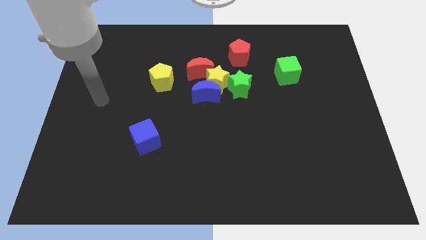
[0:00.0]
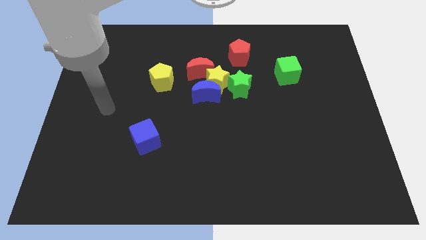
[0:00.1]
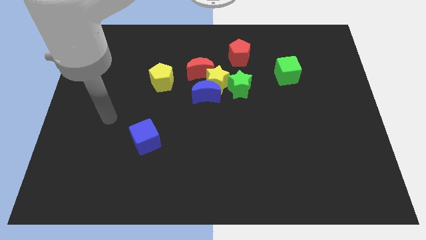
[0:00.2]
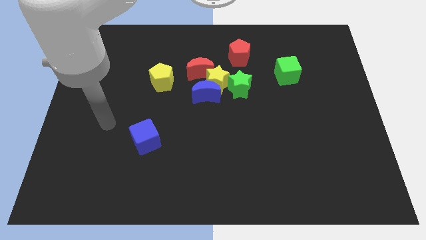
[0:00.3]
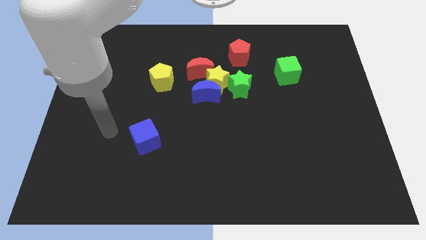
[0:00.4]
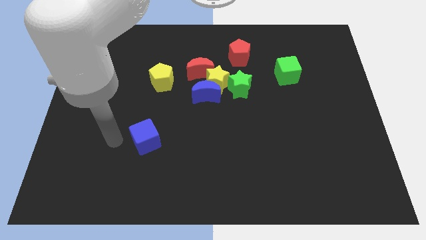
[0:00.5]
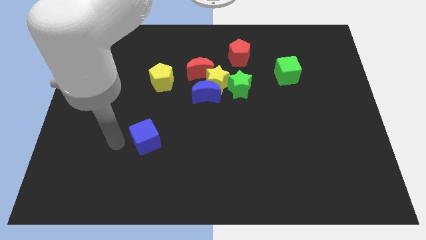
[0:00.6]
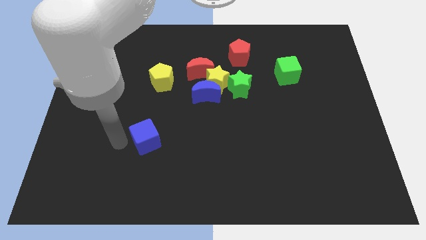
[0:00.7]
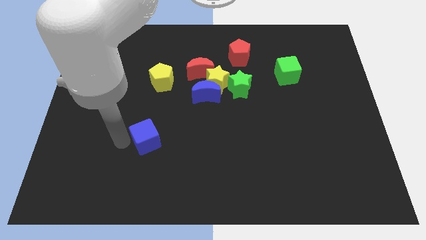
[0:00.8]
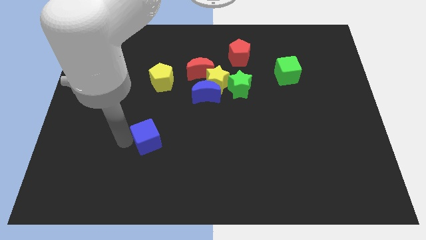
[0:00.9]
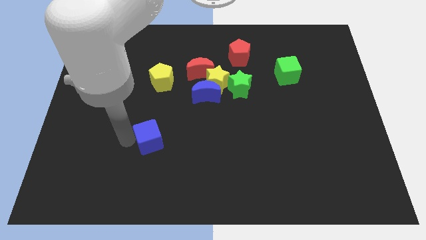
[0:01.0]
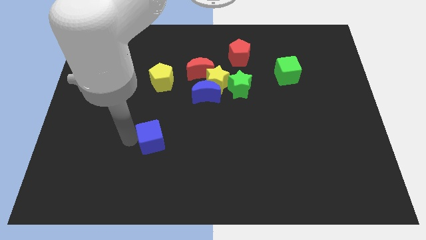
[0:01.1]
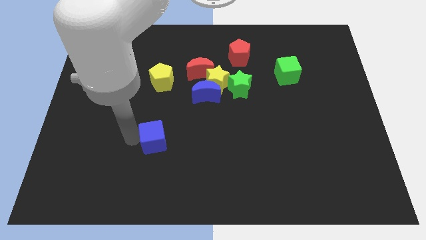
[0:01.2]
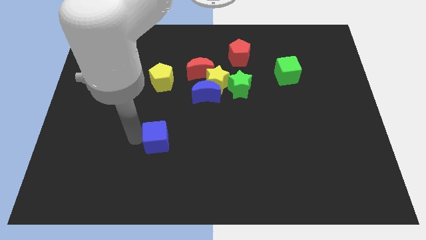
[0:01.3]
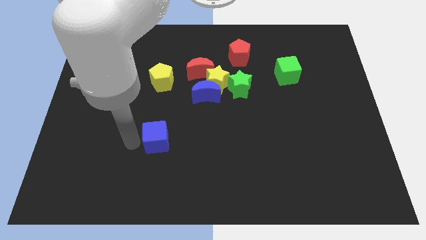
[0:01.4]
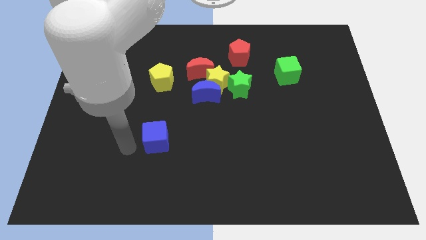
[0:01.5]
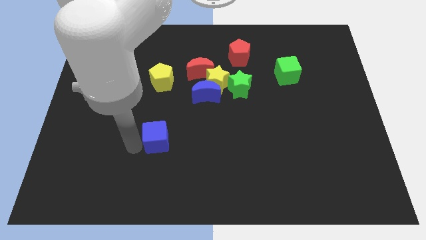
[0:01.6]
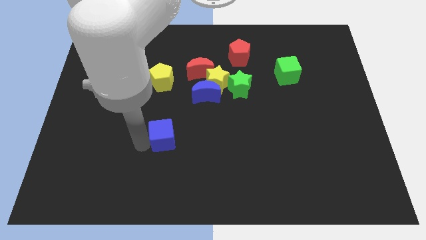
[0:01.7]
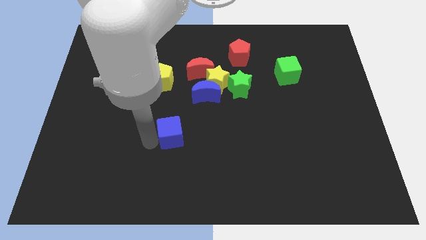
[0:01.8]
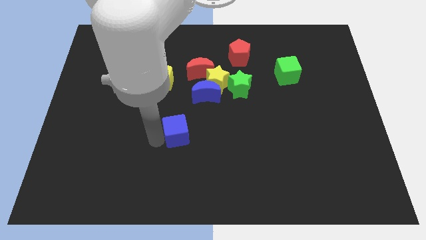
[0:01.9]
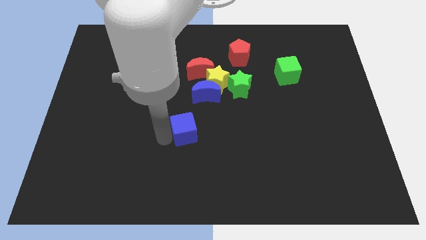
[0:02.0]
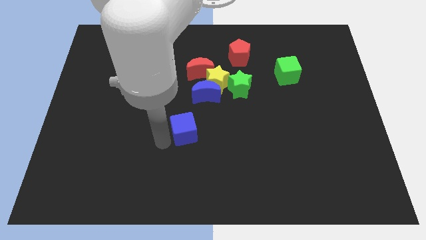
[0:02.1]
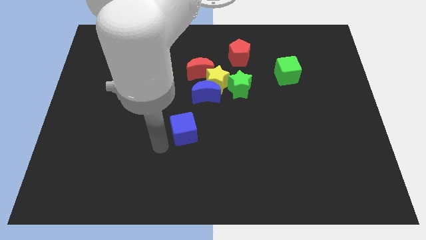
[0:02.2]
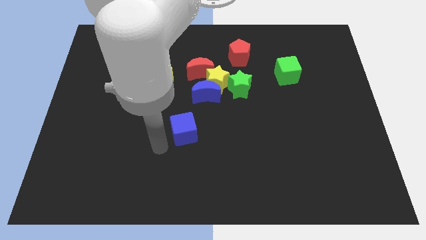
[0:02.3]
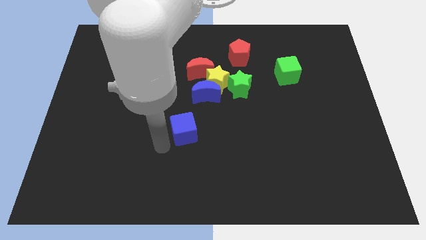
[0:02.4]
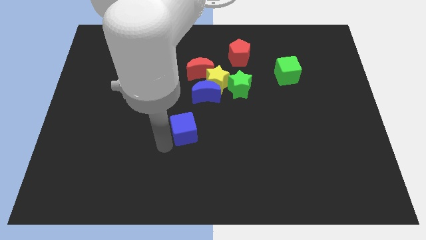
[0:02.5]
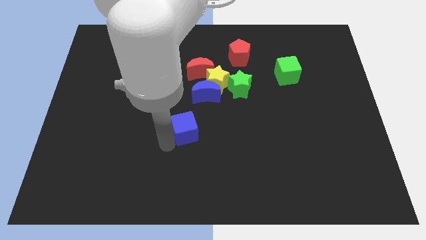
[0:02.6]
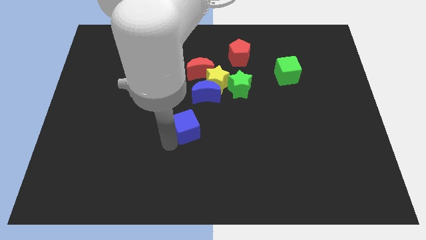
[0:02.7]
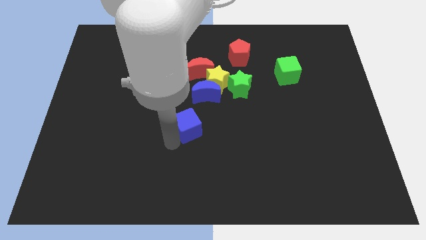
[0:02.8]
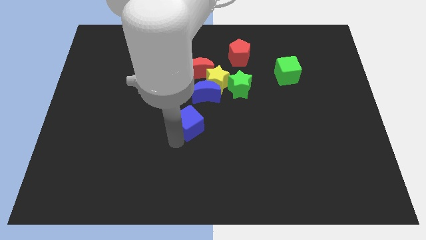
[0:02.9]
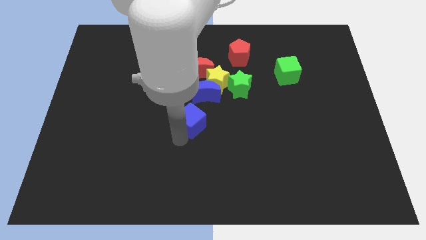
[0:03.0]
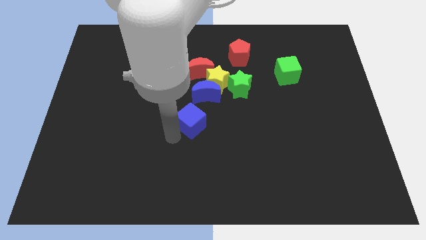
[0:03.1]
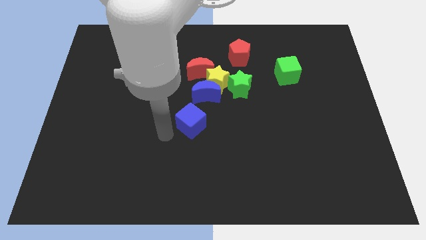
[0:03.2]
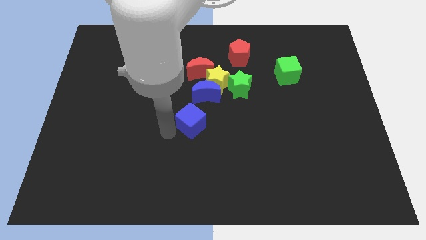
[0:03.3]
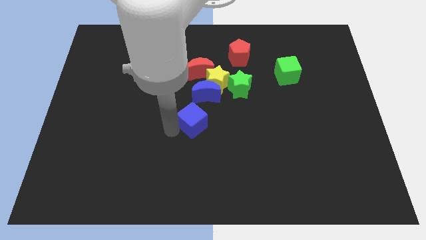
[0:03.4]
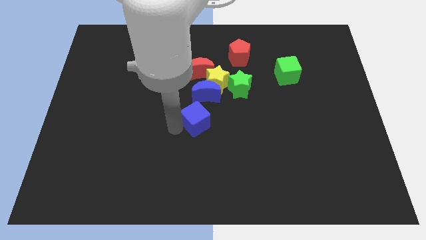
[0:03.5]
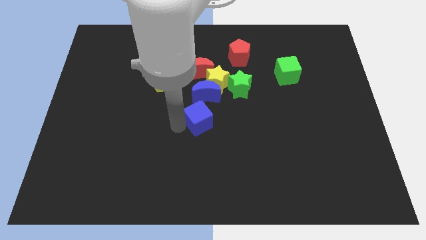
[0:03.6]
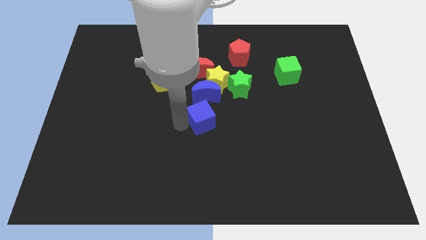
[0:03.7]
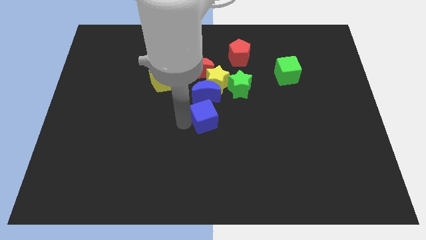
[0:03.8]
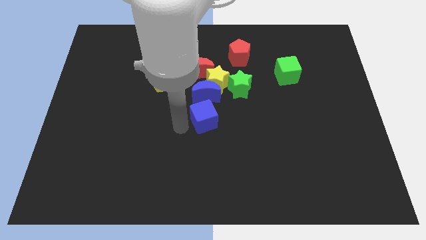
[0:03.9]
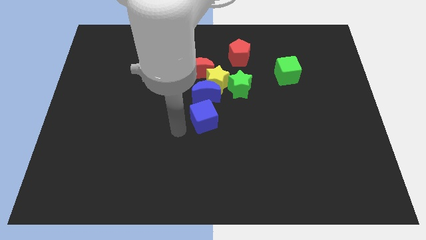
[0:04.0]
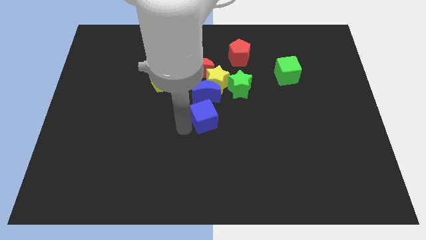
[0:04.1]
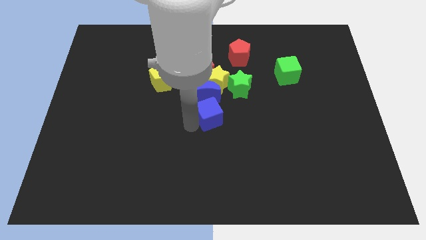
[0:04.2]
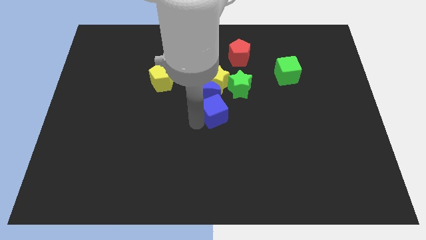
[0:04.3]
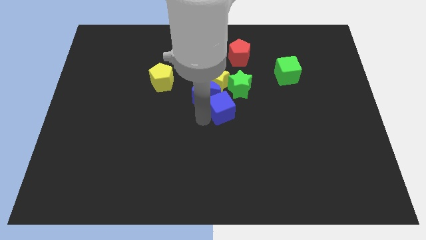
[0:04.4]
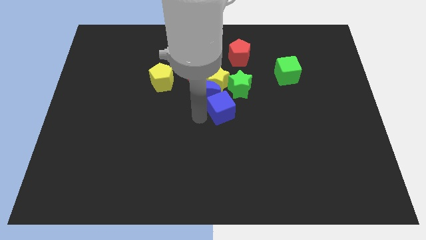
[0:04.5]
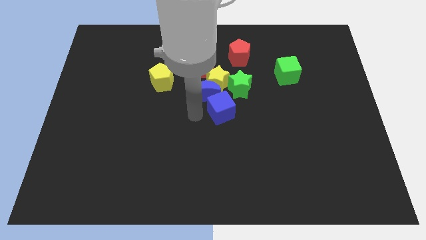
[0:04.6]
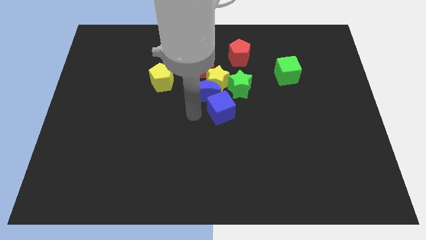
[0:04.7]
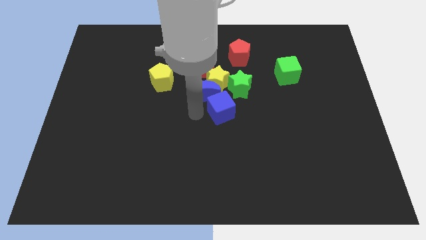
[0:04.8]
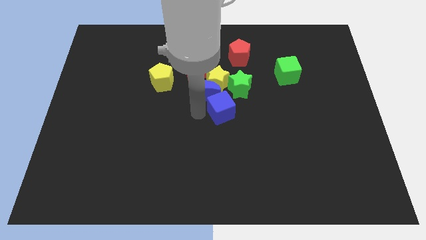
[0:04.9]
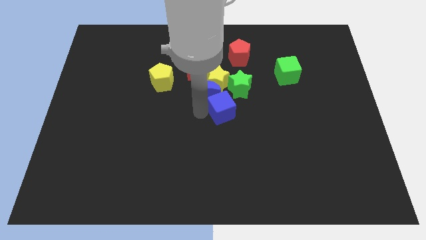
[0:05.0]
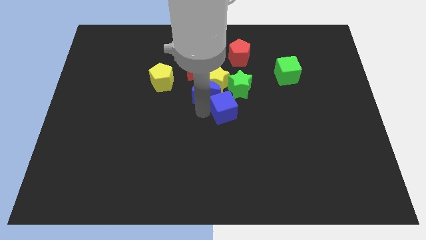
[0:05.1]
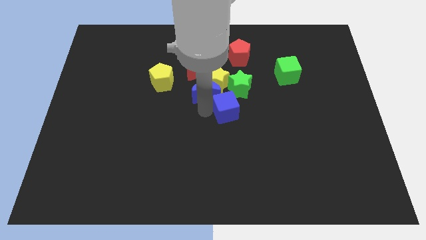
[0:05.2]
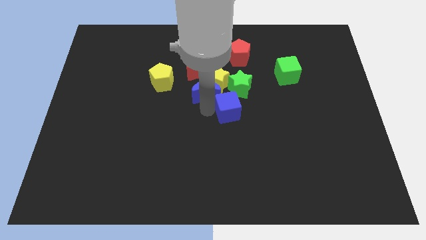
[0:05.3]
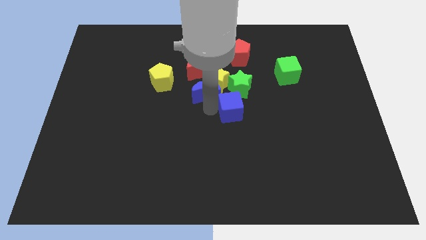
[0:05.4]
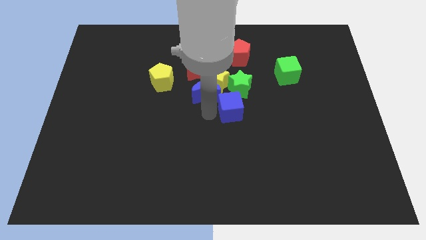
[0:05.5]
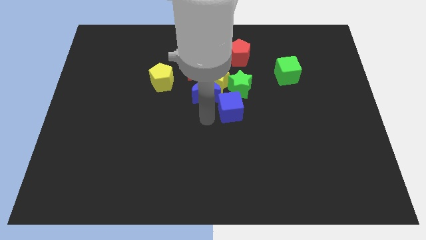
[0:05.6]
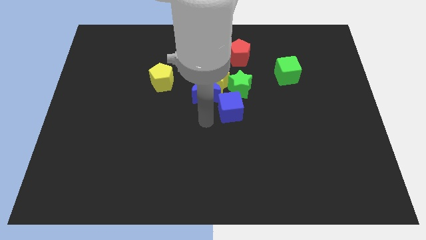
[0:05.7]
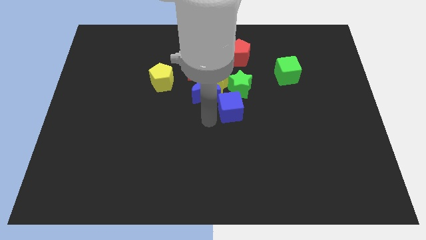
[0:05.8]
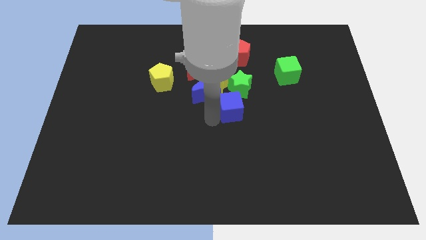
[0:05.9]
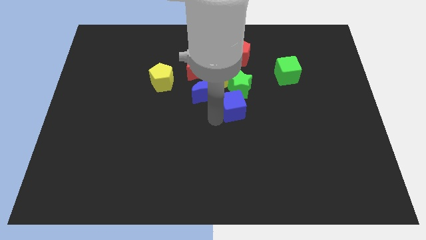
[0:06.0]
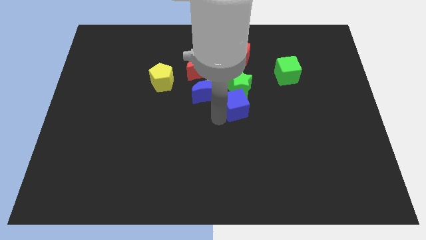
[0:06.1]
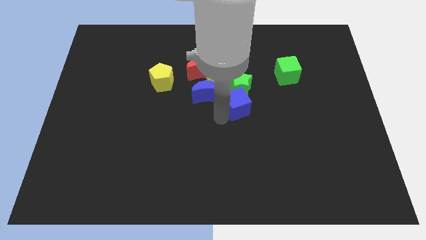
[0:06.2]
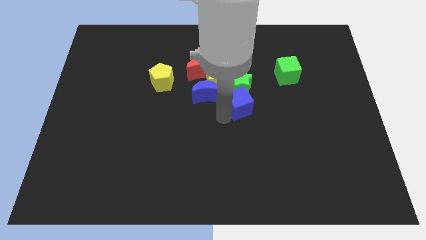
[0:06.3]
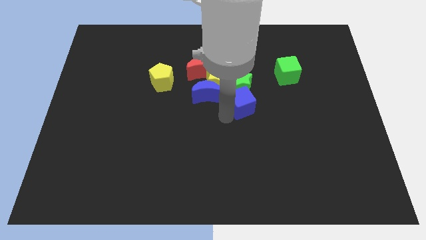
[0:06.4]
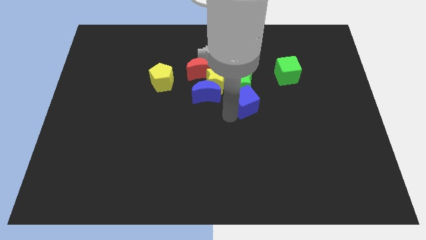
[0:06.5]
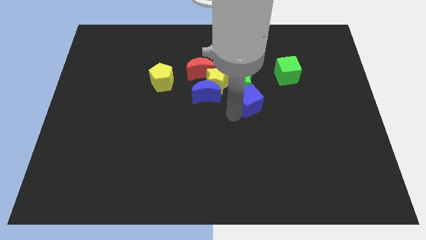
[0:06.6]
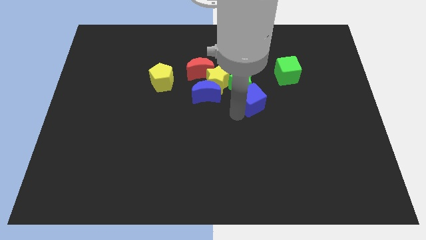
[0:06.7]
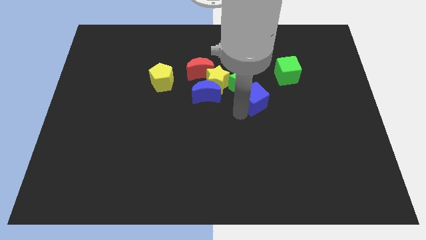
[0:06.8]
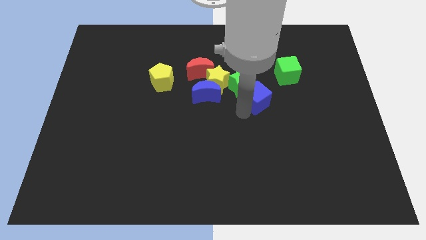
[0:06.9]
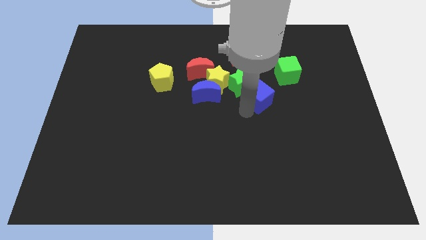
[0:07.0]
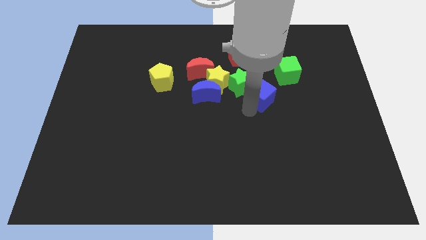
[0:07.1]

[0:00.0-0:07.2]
push the blue cube to the right of the yellow star

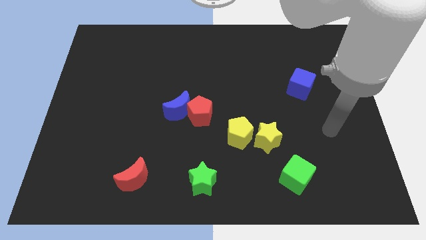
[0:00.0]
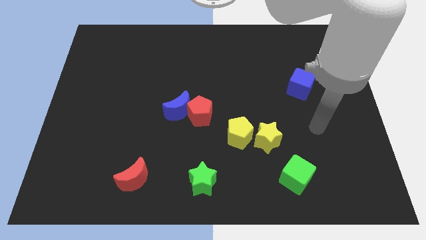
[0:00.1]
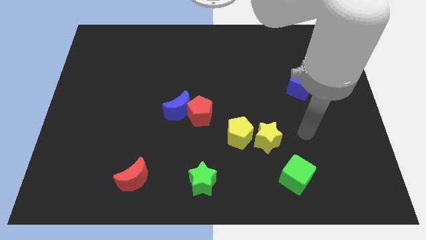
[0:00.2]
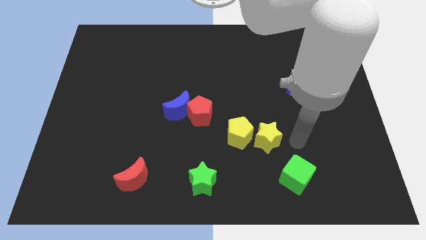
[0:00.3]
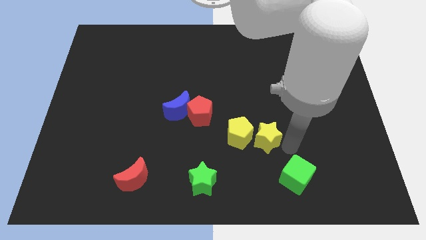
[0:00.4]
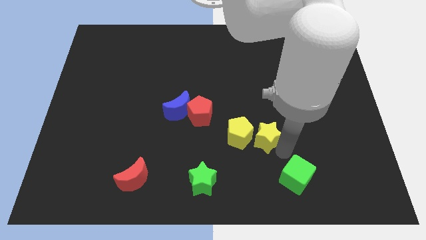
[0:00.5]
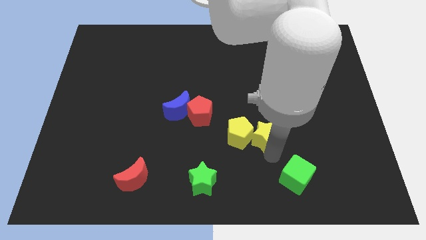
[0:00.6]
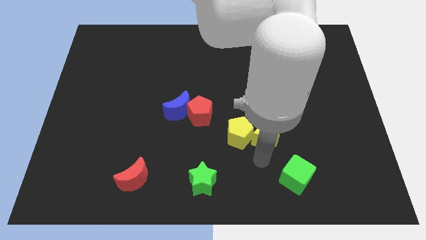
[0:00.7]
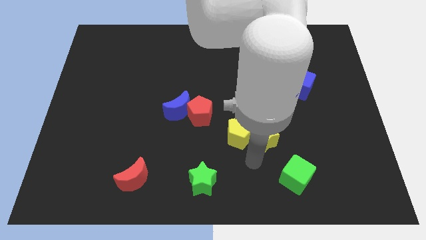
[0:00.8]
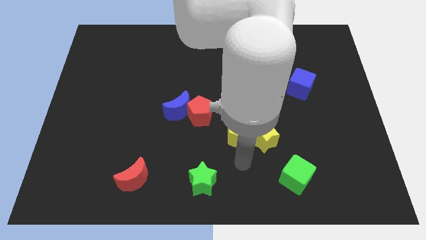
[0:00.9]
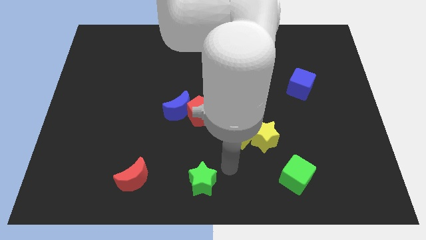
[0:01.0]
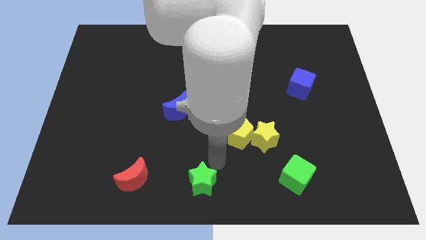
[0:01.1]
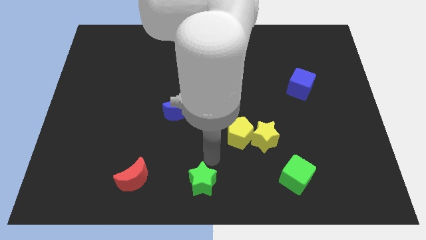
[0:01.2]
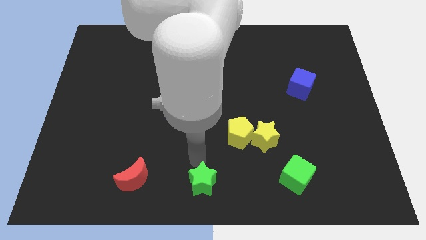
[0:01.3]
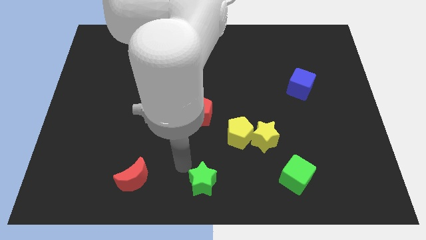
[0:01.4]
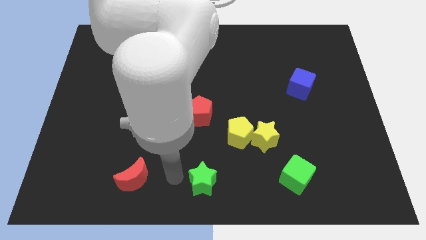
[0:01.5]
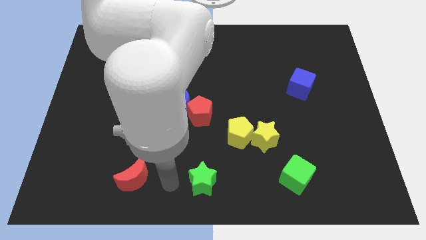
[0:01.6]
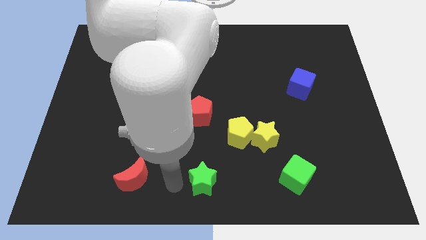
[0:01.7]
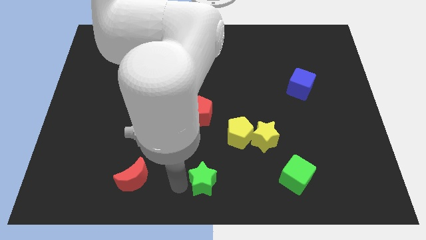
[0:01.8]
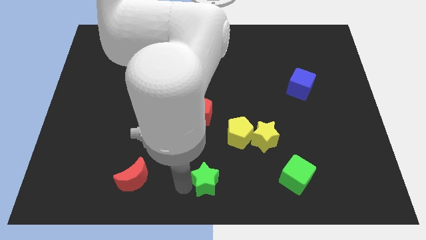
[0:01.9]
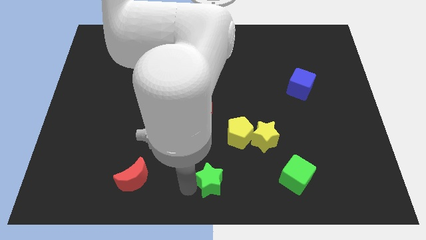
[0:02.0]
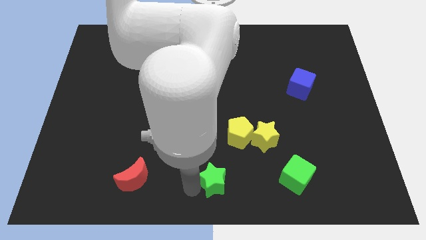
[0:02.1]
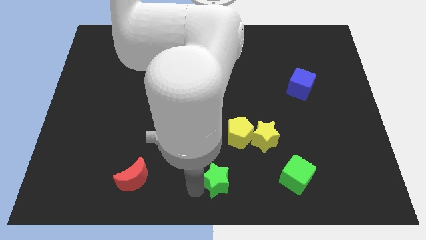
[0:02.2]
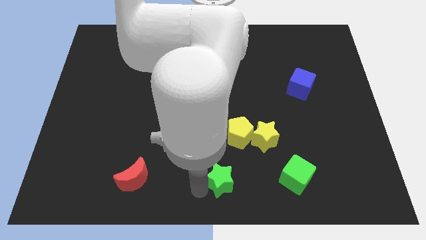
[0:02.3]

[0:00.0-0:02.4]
push the green star to the bottom side of the yellow pentagon
